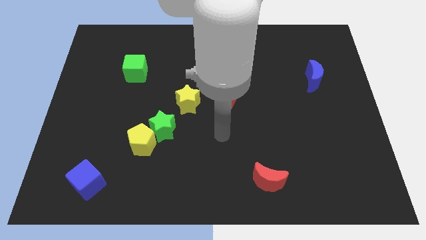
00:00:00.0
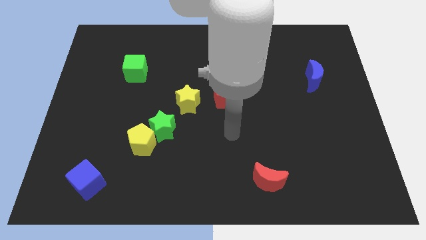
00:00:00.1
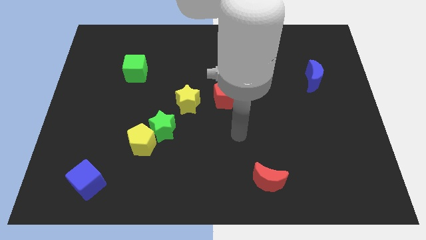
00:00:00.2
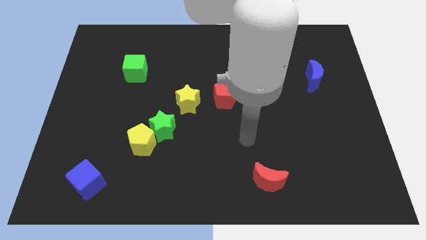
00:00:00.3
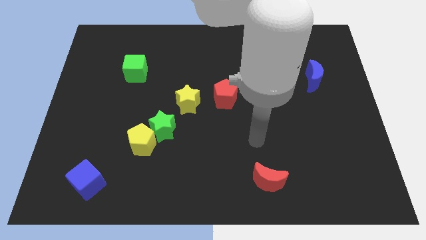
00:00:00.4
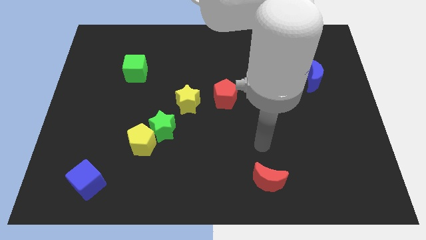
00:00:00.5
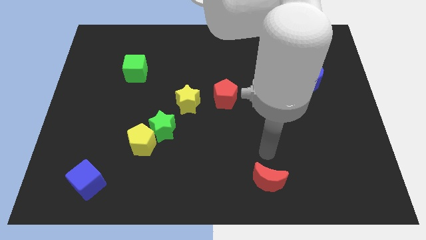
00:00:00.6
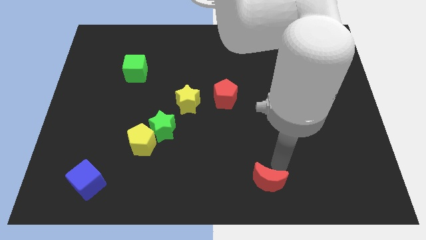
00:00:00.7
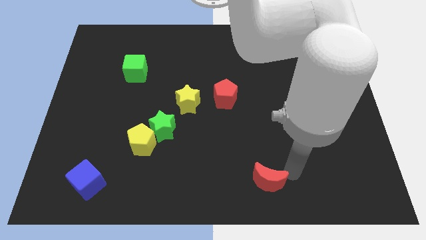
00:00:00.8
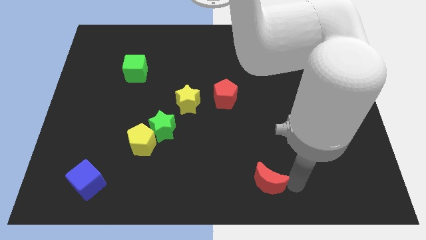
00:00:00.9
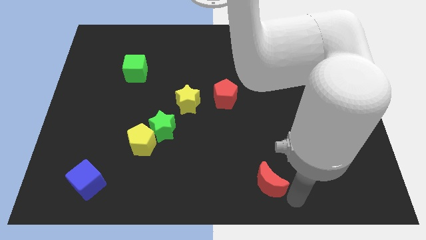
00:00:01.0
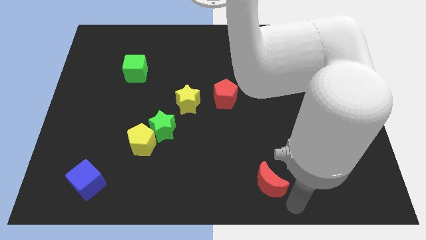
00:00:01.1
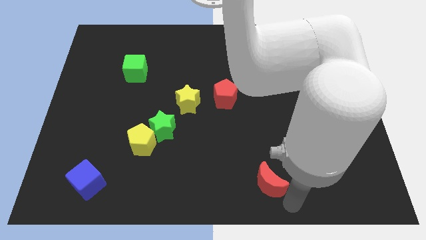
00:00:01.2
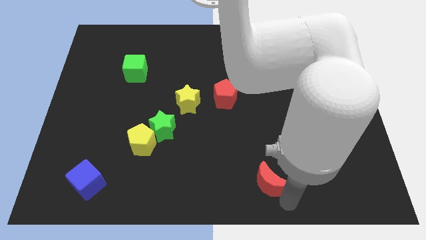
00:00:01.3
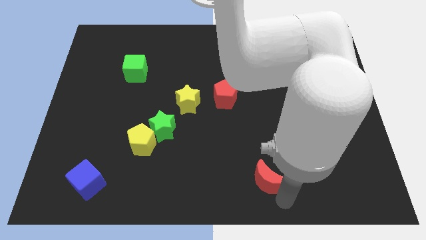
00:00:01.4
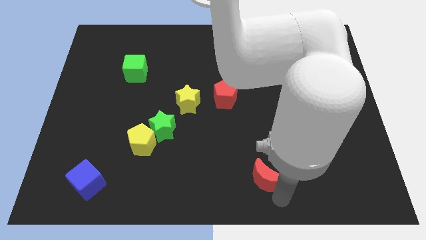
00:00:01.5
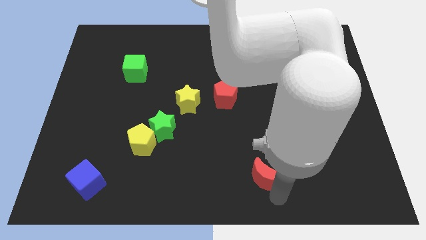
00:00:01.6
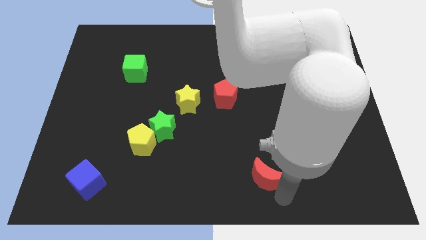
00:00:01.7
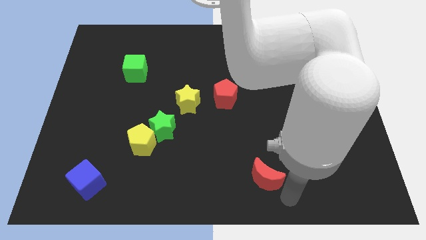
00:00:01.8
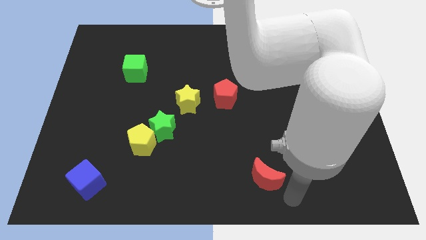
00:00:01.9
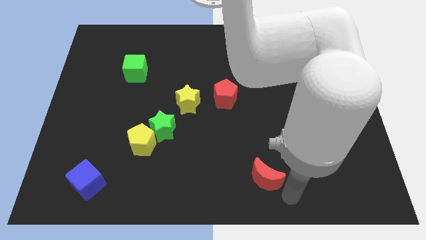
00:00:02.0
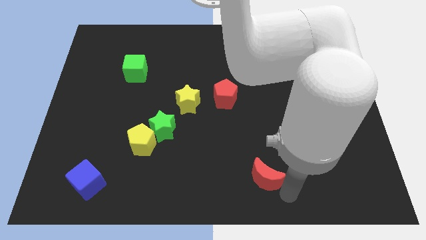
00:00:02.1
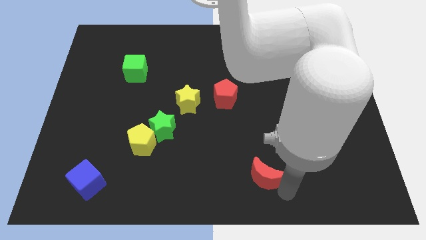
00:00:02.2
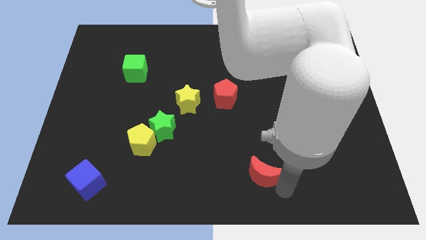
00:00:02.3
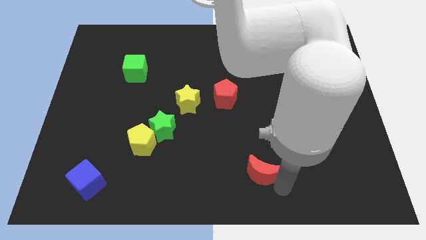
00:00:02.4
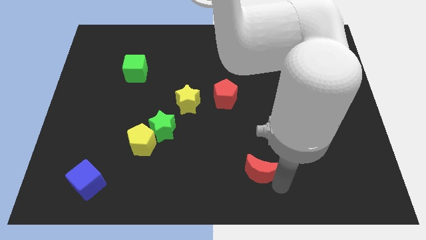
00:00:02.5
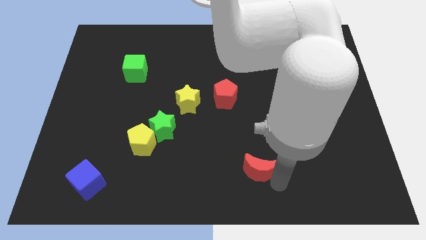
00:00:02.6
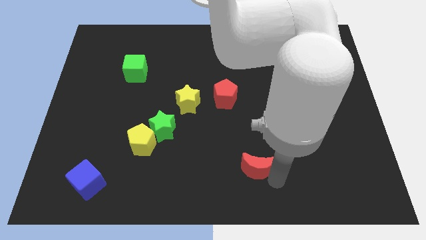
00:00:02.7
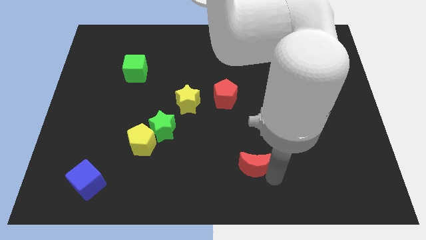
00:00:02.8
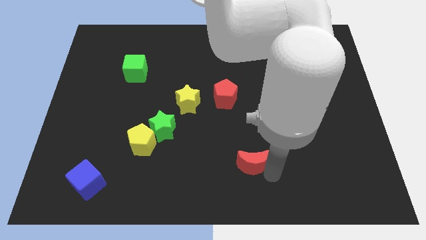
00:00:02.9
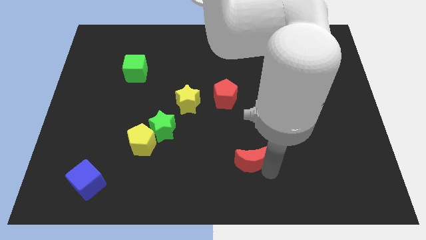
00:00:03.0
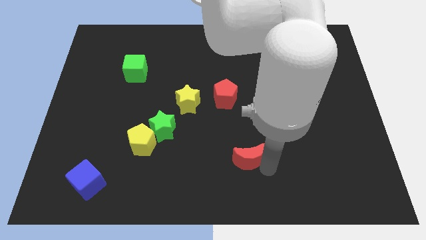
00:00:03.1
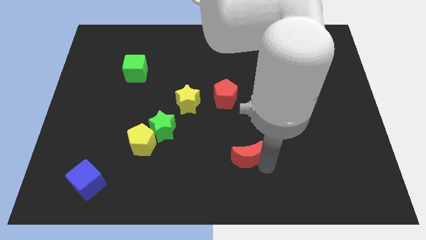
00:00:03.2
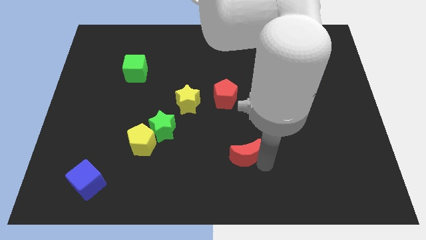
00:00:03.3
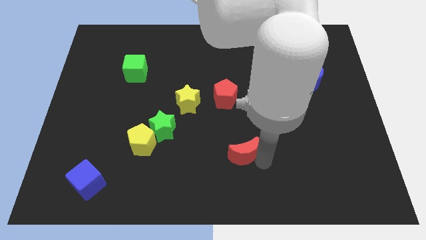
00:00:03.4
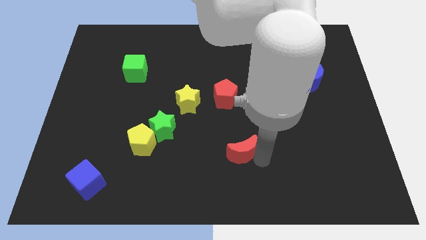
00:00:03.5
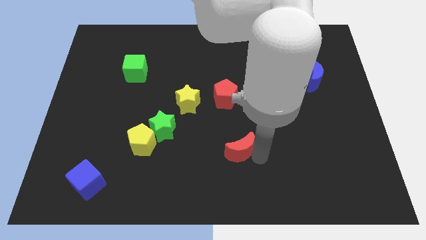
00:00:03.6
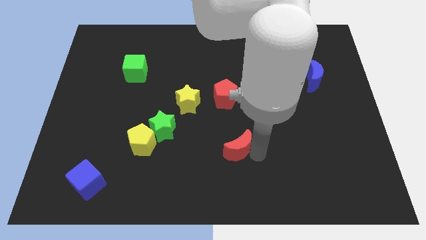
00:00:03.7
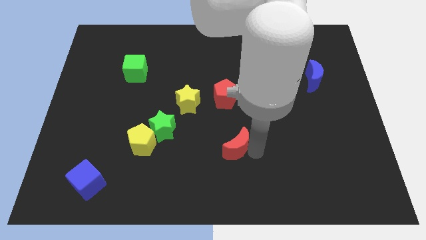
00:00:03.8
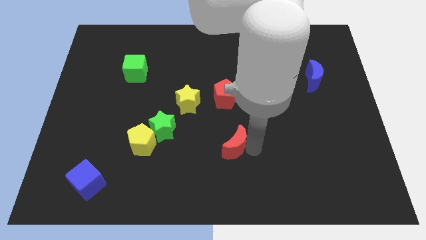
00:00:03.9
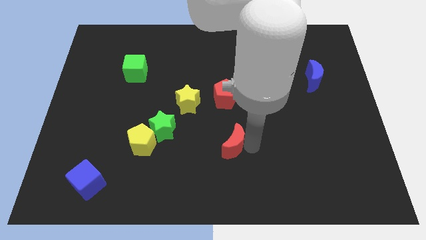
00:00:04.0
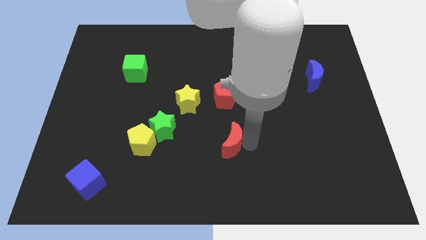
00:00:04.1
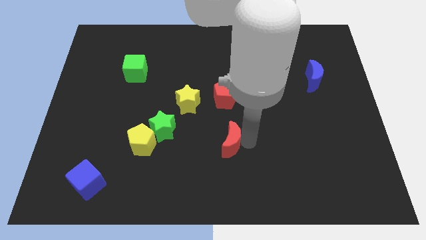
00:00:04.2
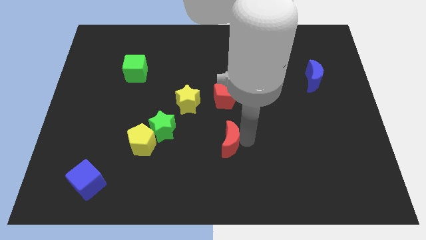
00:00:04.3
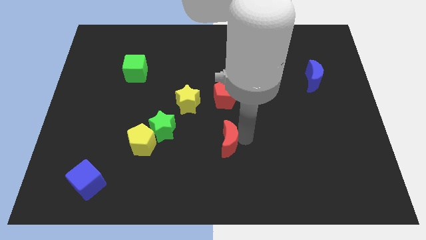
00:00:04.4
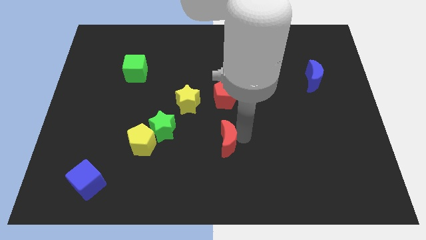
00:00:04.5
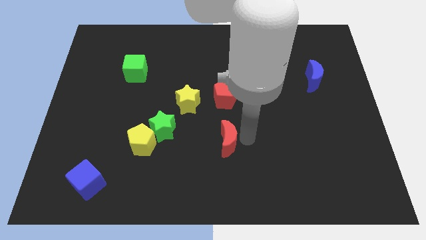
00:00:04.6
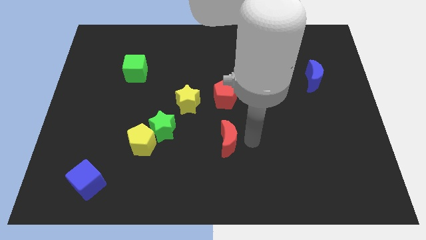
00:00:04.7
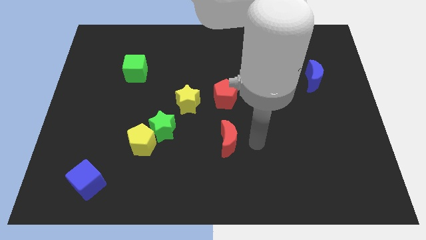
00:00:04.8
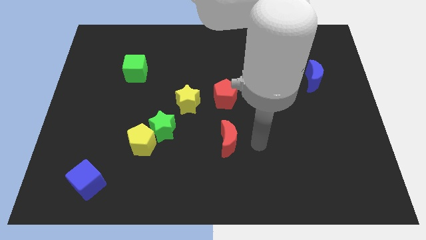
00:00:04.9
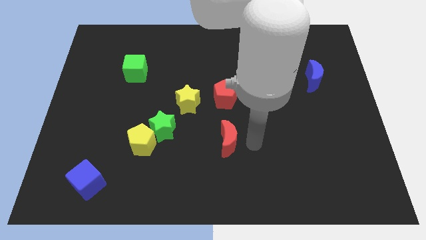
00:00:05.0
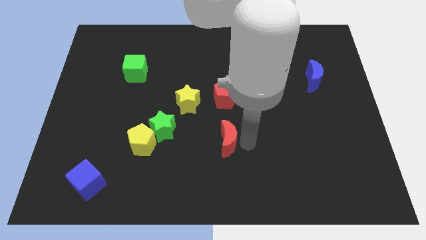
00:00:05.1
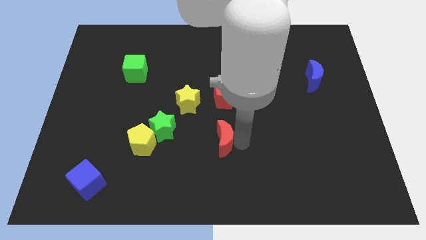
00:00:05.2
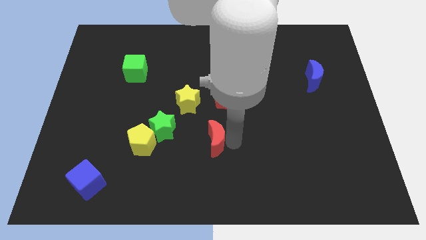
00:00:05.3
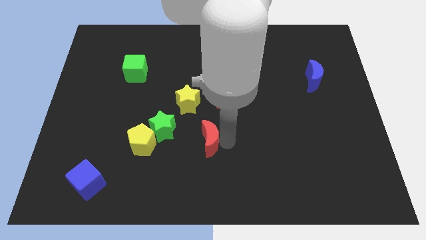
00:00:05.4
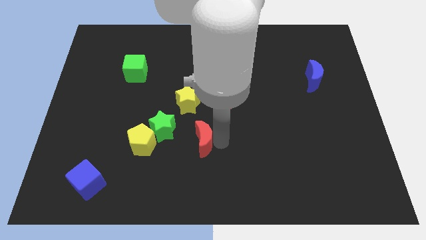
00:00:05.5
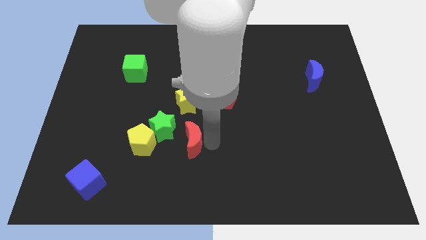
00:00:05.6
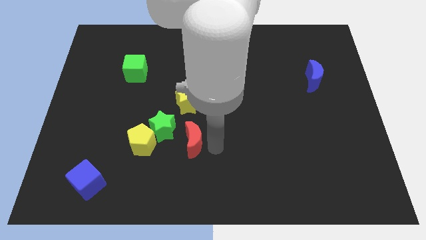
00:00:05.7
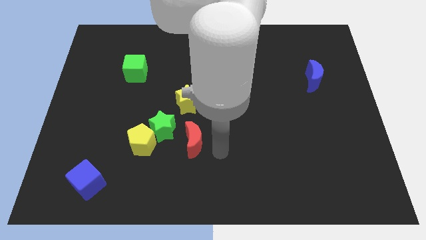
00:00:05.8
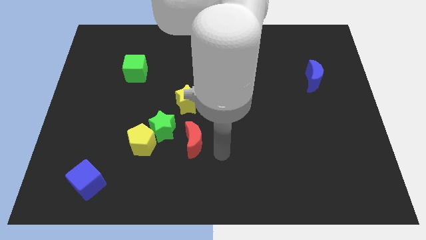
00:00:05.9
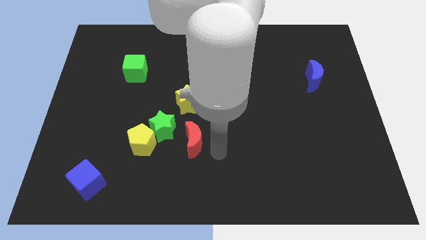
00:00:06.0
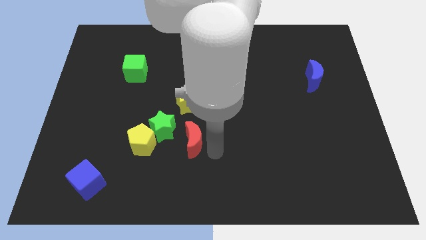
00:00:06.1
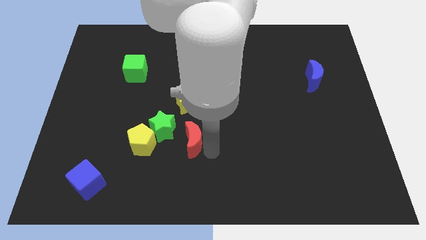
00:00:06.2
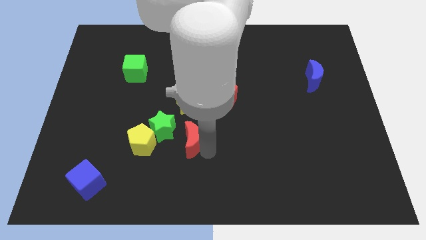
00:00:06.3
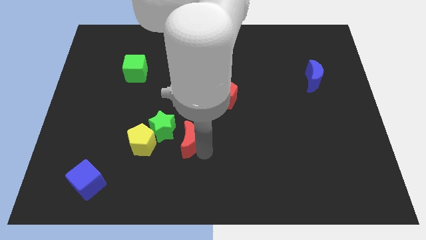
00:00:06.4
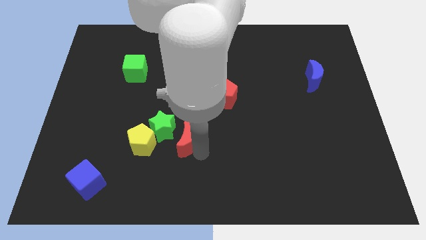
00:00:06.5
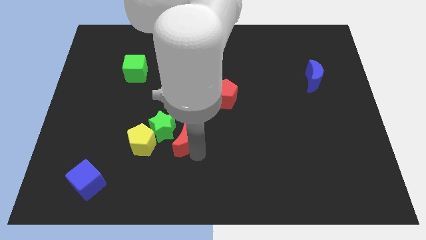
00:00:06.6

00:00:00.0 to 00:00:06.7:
slide the red moon close to the green star

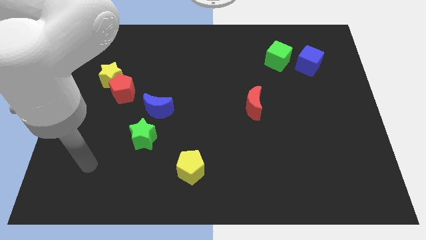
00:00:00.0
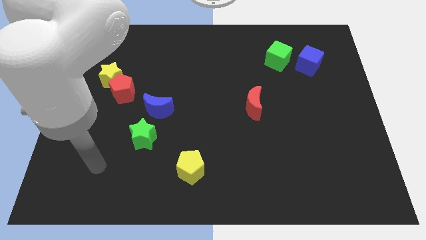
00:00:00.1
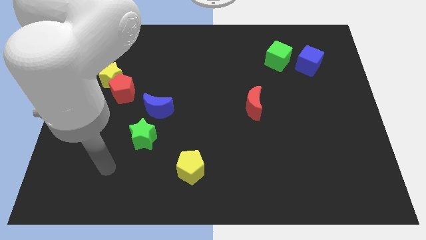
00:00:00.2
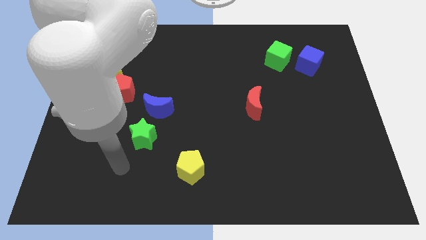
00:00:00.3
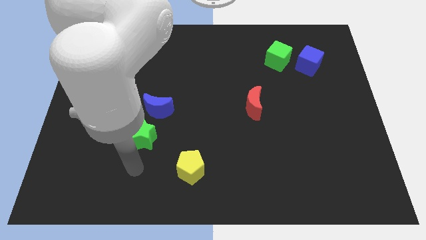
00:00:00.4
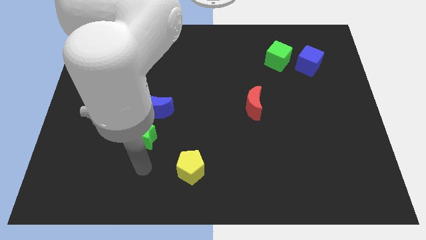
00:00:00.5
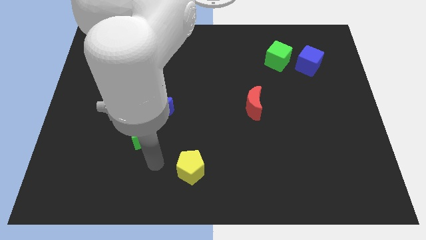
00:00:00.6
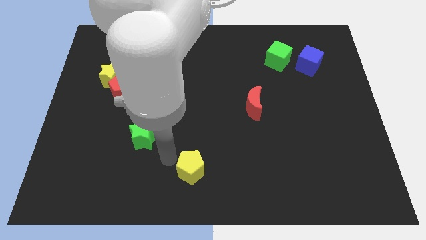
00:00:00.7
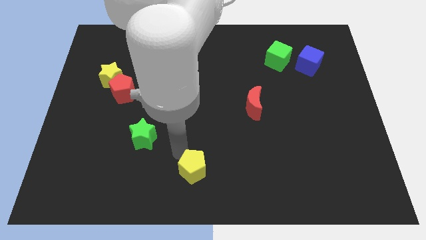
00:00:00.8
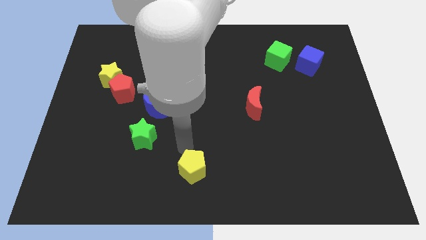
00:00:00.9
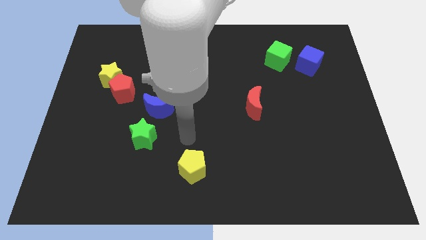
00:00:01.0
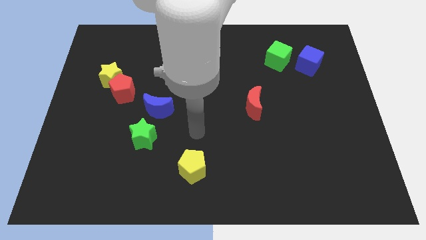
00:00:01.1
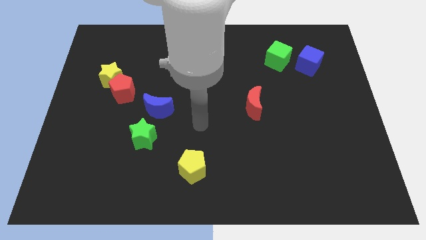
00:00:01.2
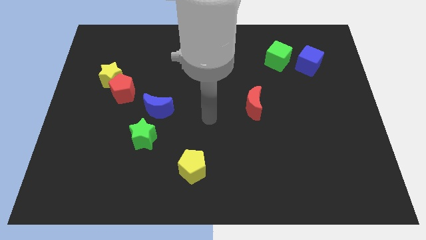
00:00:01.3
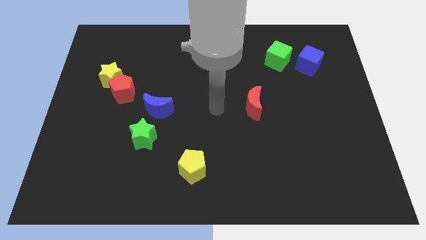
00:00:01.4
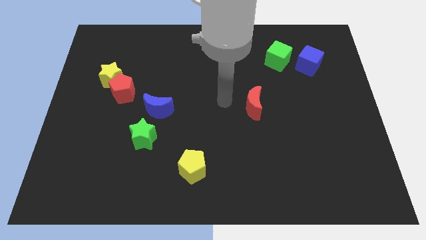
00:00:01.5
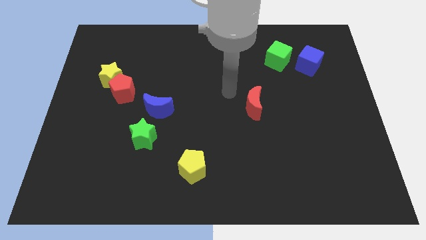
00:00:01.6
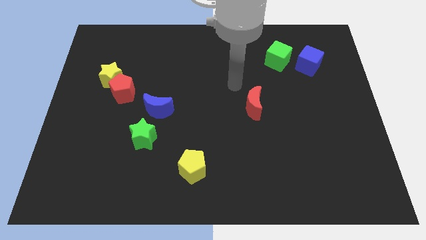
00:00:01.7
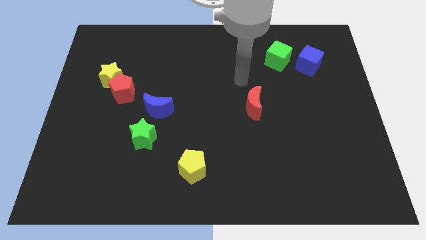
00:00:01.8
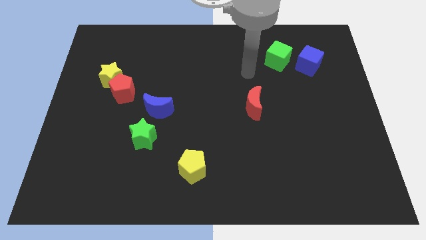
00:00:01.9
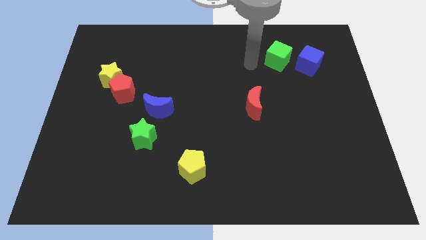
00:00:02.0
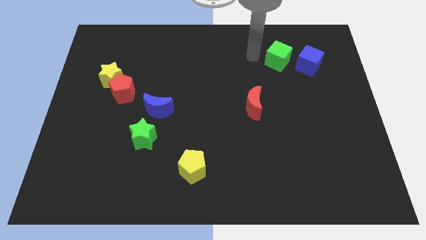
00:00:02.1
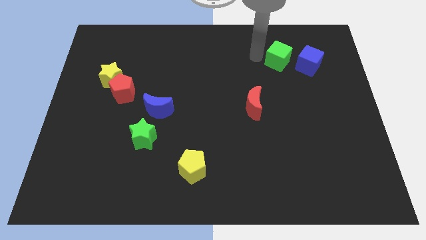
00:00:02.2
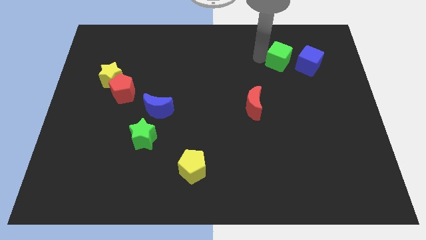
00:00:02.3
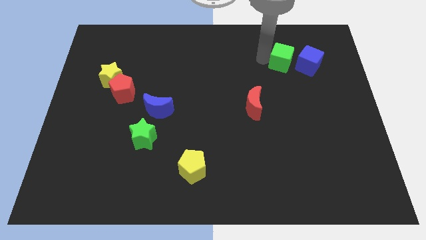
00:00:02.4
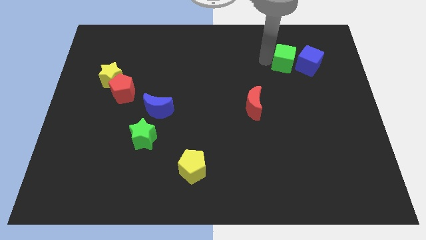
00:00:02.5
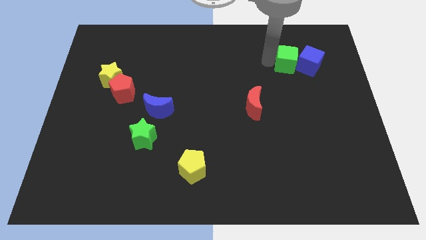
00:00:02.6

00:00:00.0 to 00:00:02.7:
push the green cube towards the blue cube
